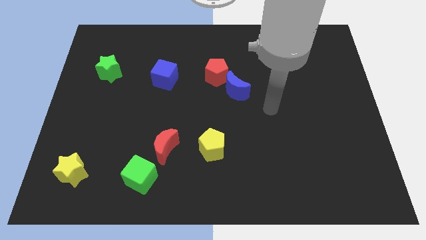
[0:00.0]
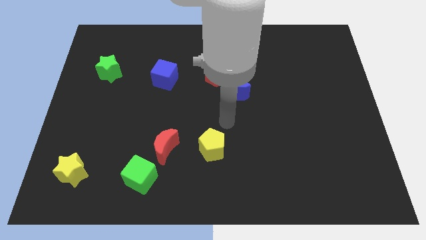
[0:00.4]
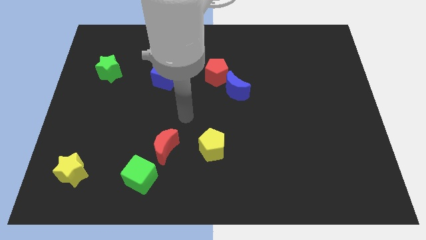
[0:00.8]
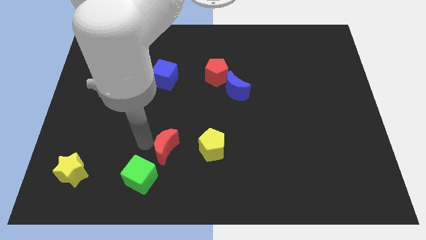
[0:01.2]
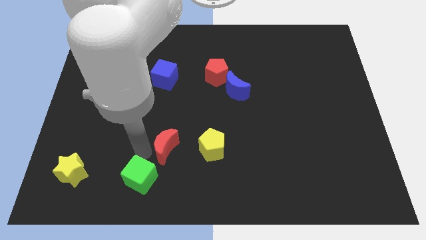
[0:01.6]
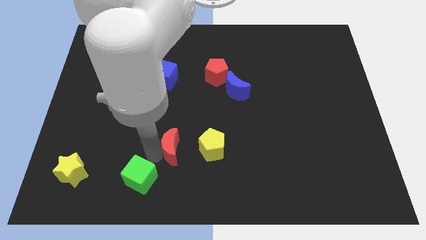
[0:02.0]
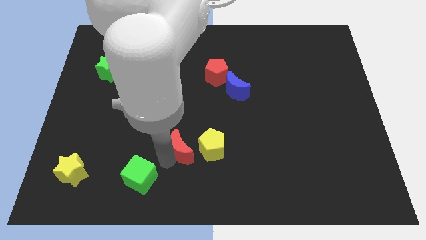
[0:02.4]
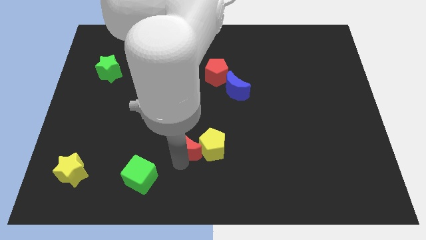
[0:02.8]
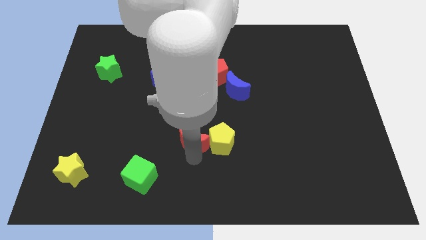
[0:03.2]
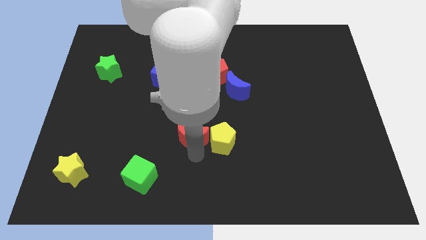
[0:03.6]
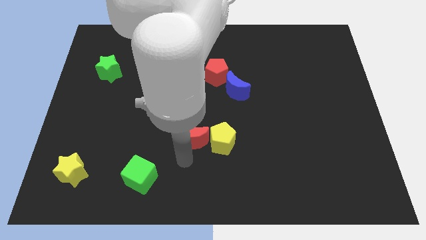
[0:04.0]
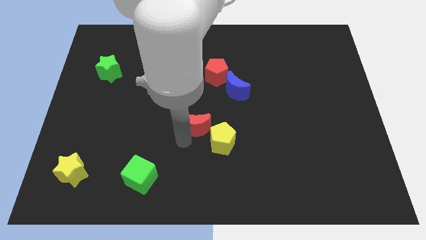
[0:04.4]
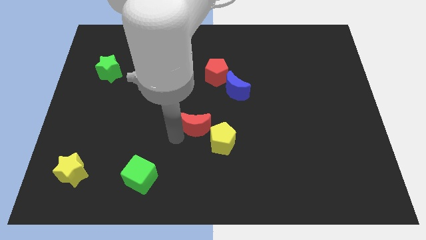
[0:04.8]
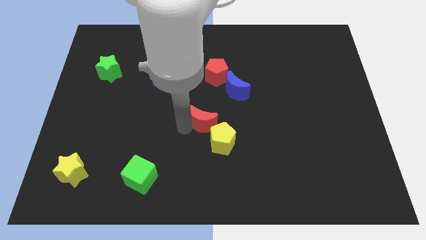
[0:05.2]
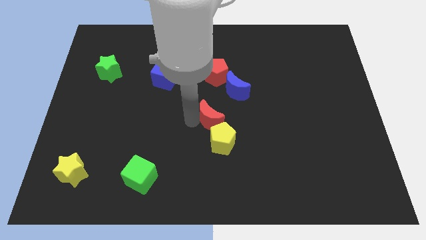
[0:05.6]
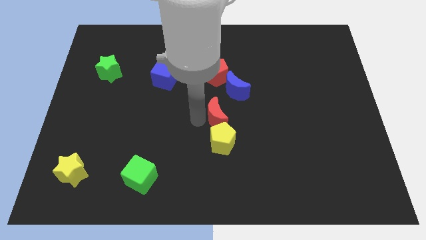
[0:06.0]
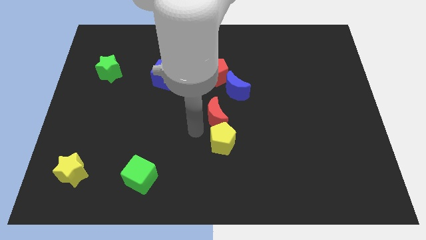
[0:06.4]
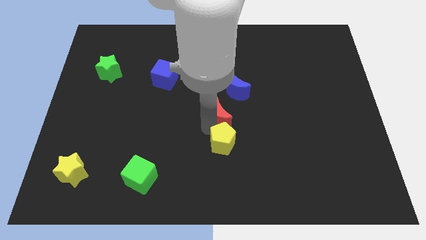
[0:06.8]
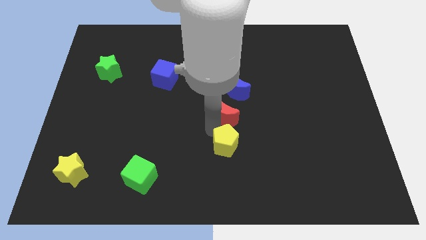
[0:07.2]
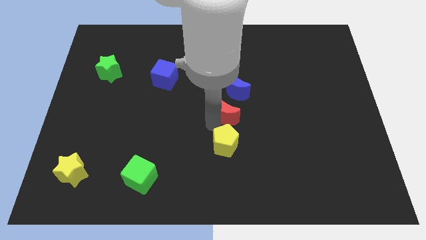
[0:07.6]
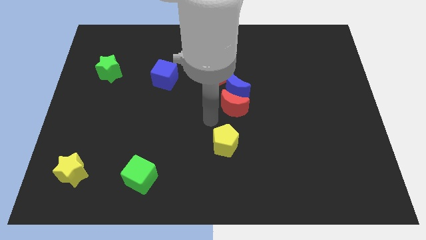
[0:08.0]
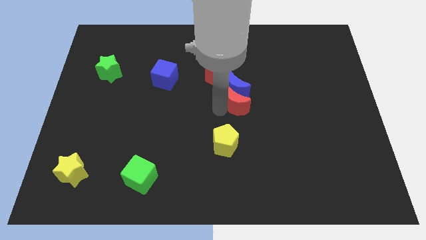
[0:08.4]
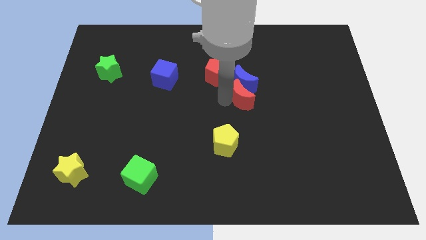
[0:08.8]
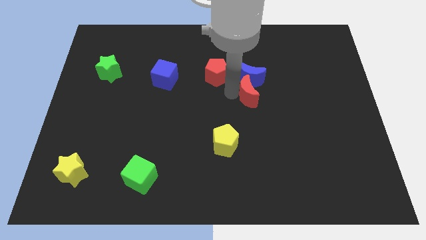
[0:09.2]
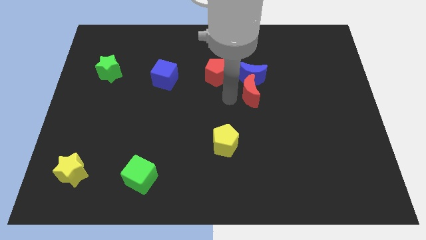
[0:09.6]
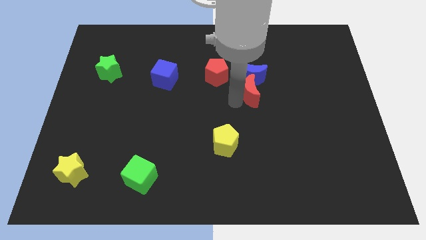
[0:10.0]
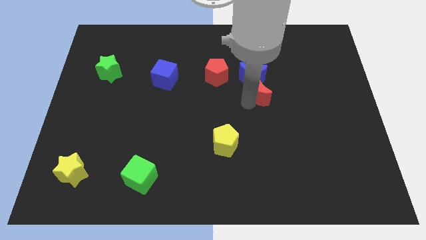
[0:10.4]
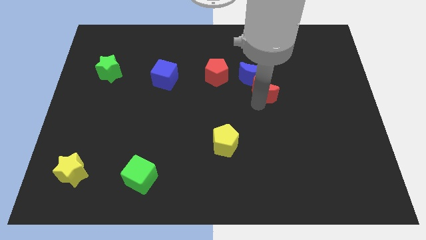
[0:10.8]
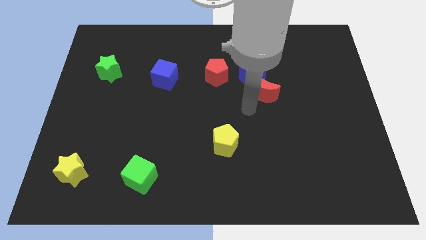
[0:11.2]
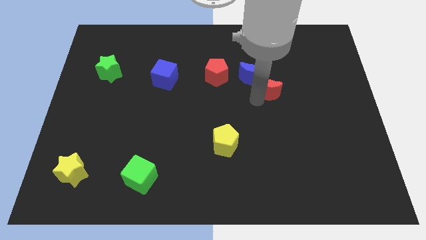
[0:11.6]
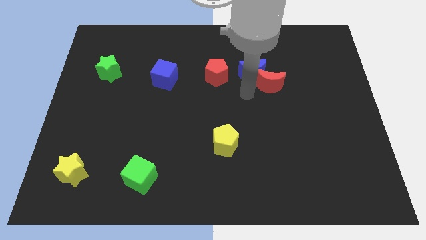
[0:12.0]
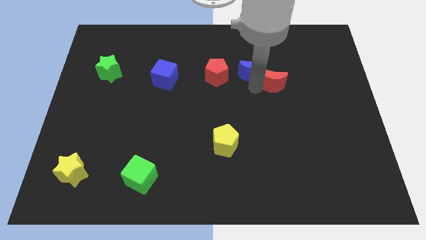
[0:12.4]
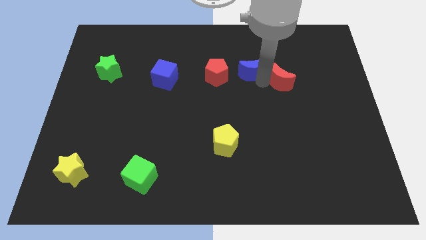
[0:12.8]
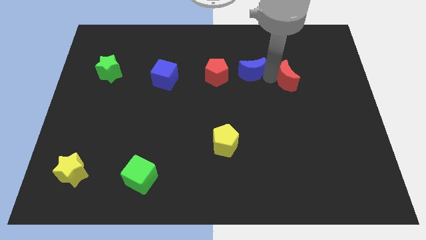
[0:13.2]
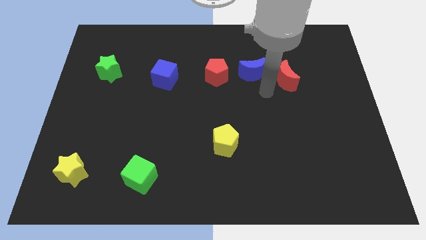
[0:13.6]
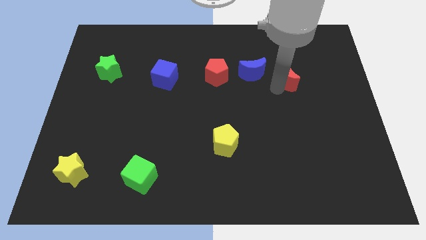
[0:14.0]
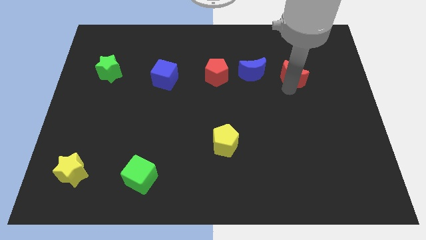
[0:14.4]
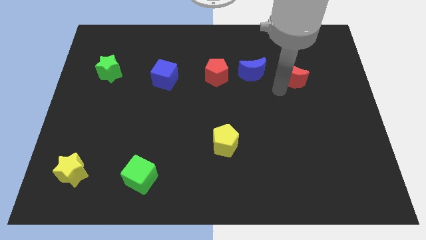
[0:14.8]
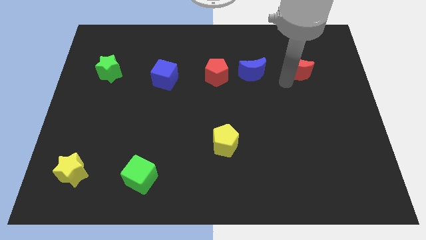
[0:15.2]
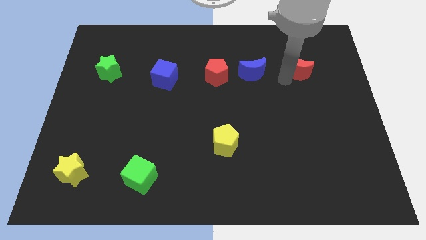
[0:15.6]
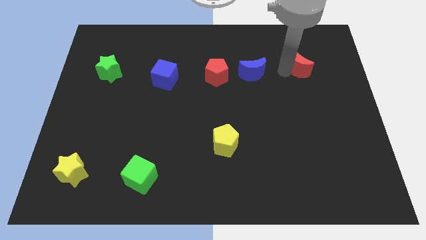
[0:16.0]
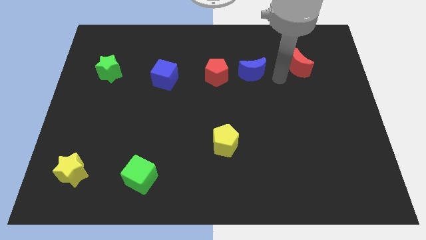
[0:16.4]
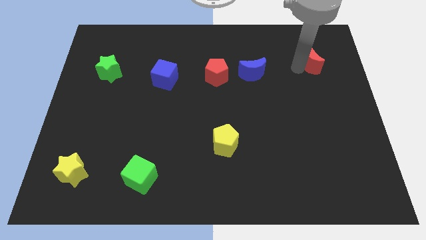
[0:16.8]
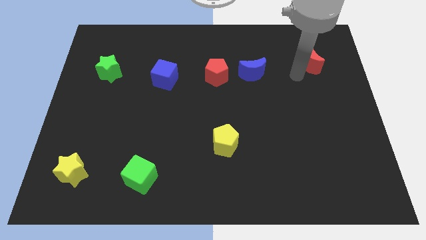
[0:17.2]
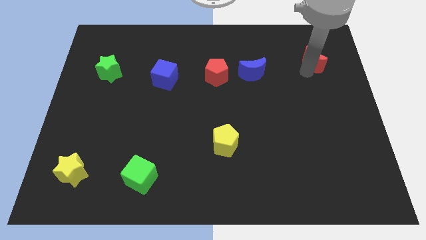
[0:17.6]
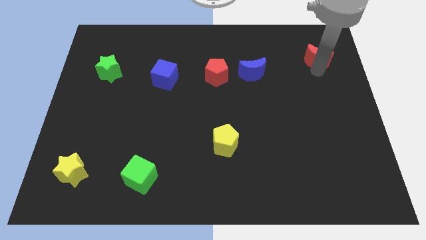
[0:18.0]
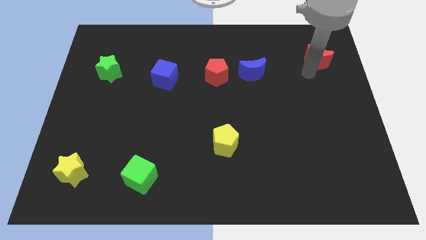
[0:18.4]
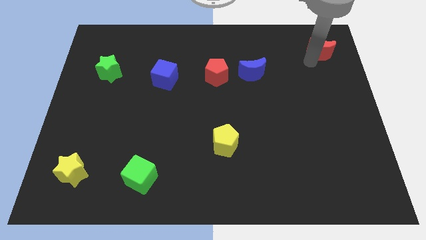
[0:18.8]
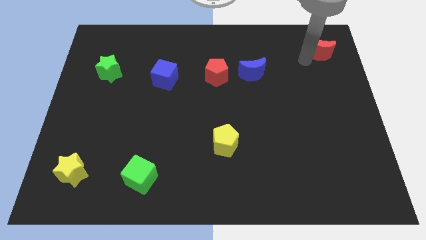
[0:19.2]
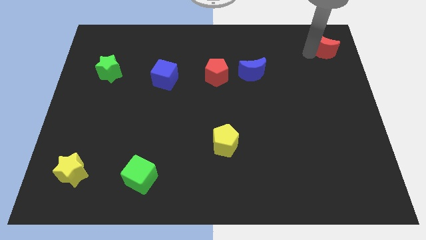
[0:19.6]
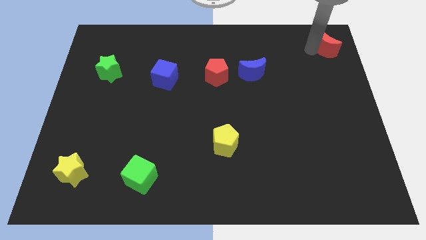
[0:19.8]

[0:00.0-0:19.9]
put the red moon to the top right

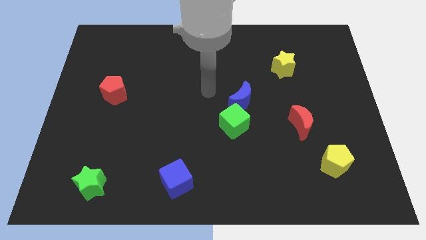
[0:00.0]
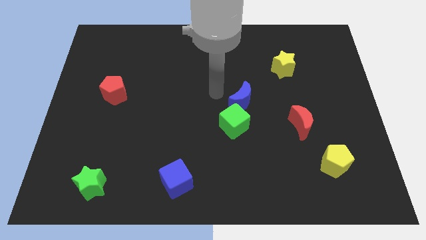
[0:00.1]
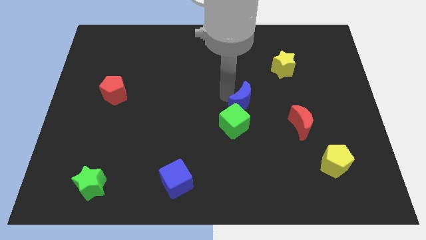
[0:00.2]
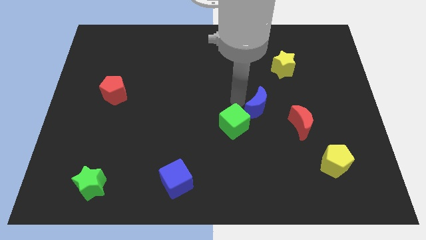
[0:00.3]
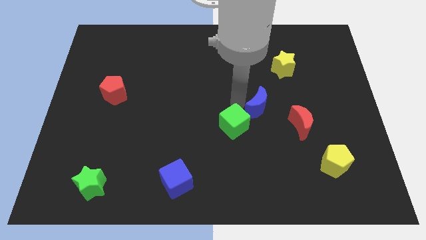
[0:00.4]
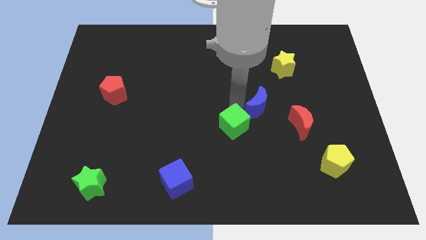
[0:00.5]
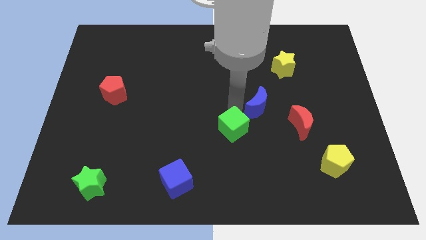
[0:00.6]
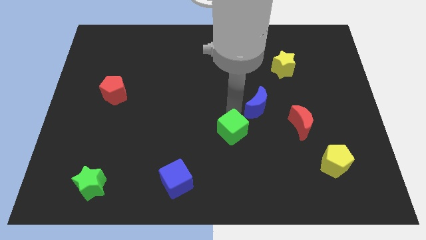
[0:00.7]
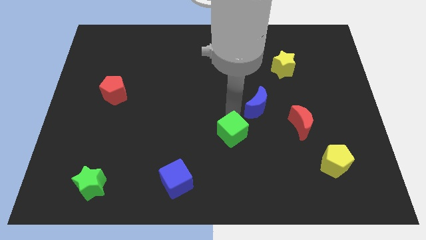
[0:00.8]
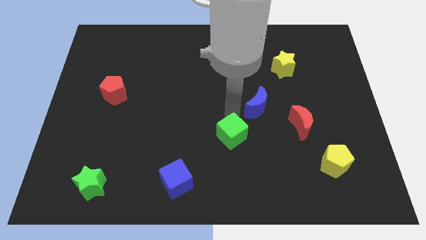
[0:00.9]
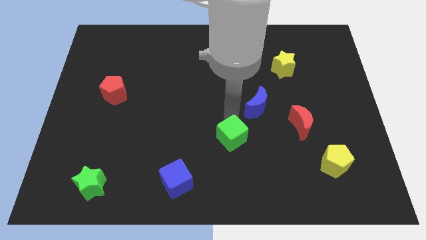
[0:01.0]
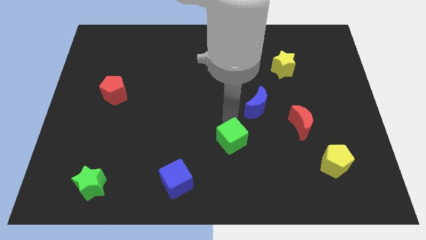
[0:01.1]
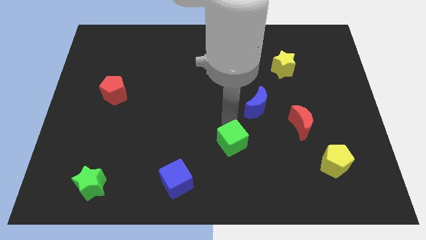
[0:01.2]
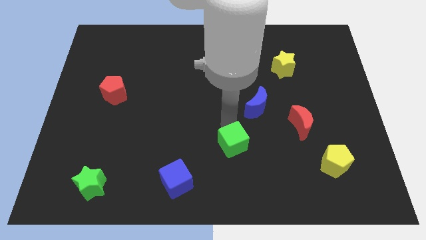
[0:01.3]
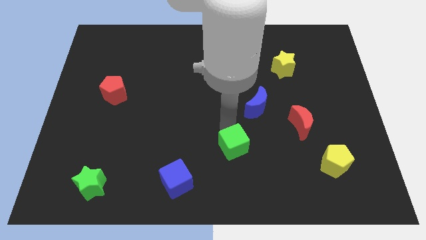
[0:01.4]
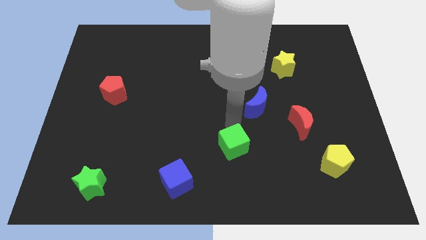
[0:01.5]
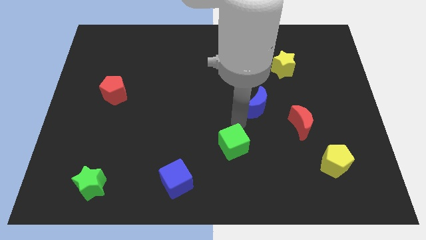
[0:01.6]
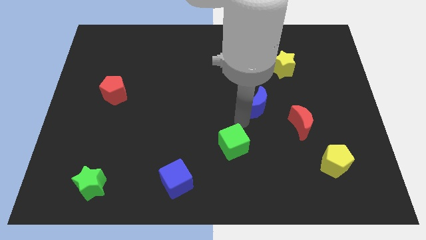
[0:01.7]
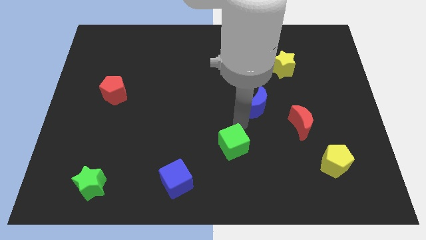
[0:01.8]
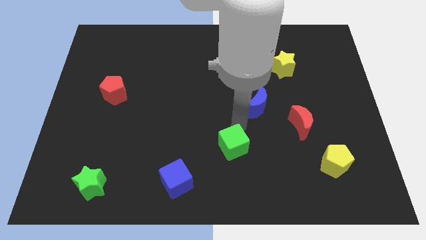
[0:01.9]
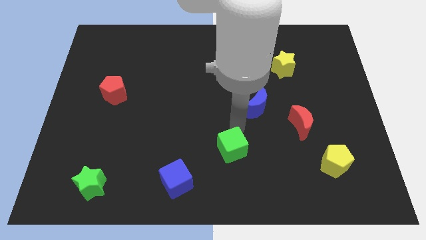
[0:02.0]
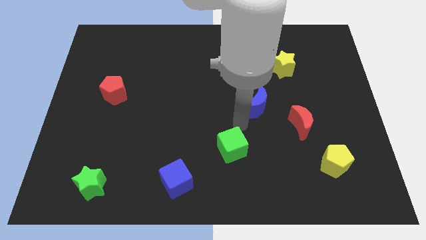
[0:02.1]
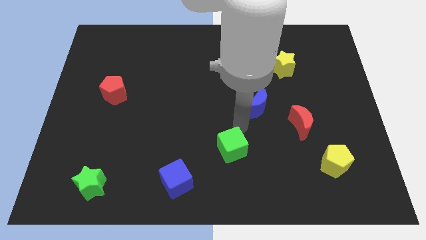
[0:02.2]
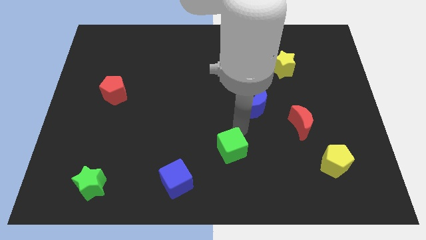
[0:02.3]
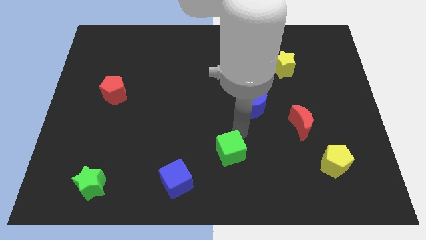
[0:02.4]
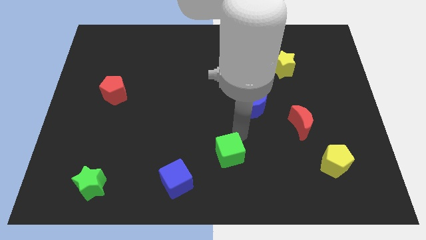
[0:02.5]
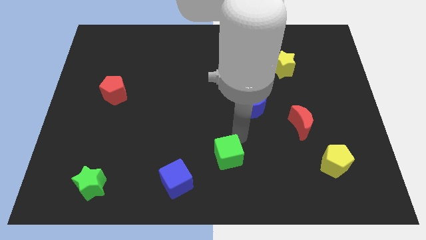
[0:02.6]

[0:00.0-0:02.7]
push the green cube to the bottom
